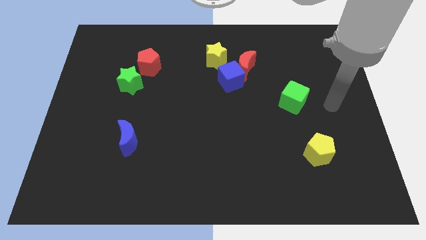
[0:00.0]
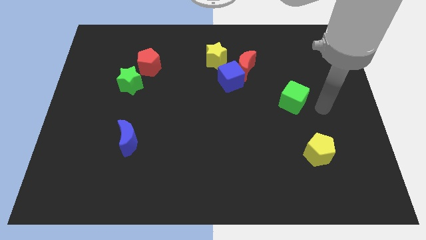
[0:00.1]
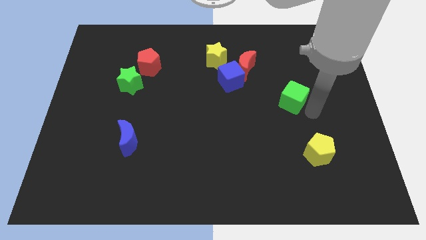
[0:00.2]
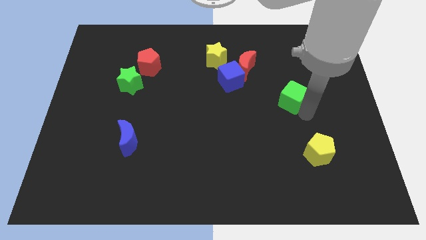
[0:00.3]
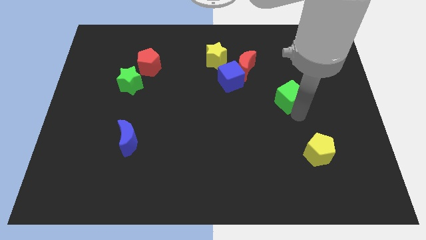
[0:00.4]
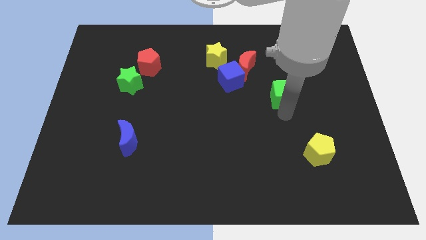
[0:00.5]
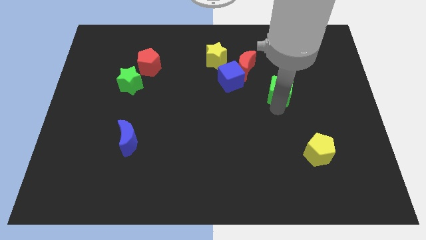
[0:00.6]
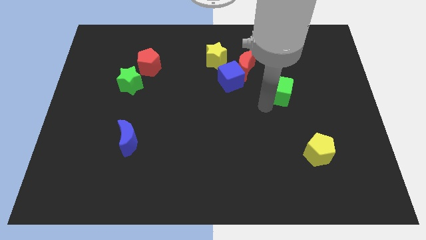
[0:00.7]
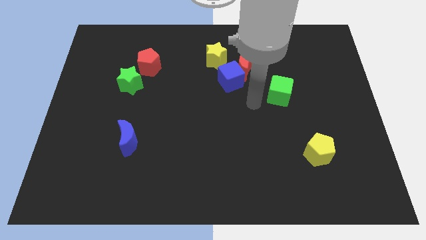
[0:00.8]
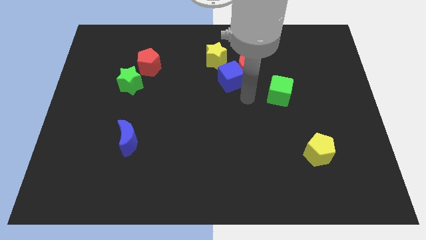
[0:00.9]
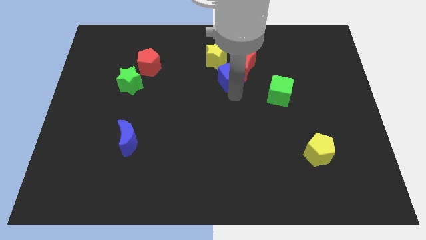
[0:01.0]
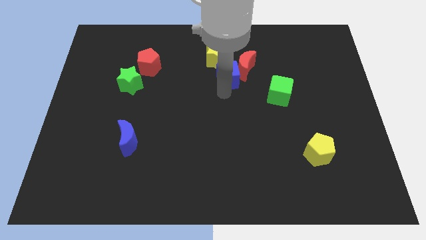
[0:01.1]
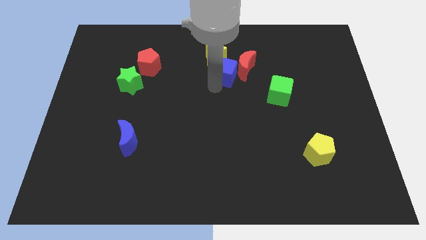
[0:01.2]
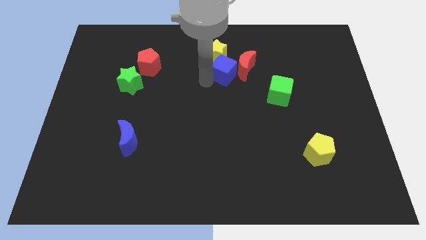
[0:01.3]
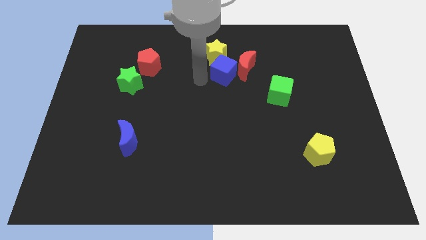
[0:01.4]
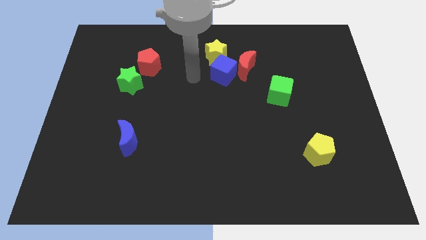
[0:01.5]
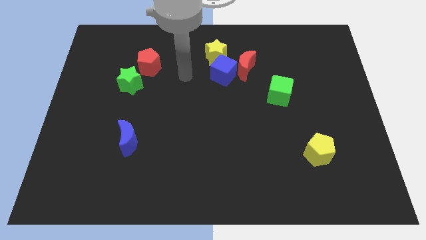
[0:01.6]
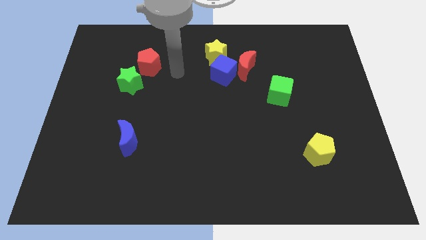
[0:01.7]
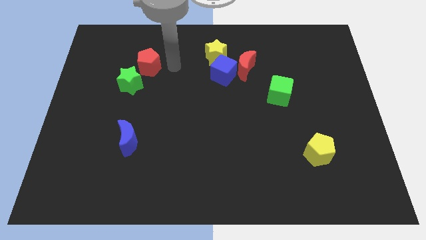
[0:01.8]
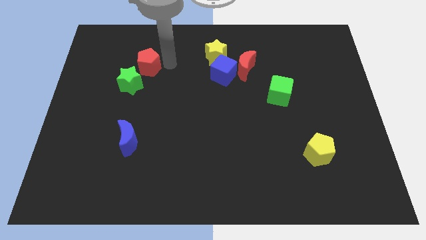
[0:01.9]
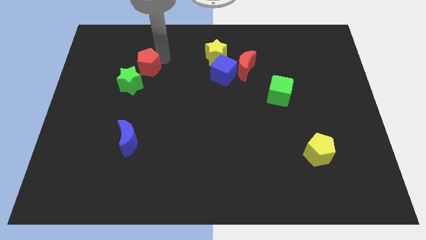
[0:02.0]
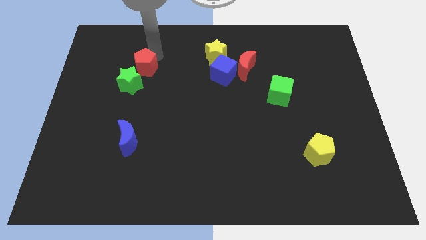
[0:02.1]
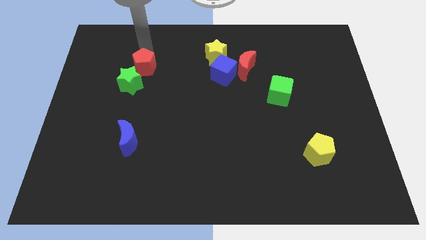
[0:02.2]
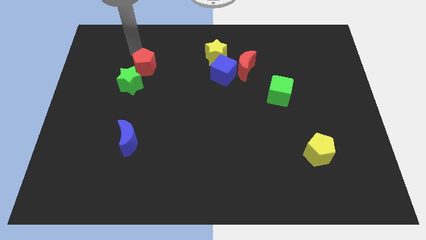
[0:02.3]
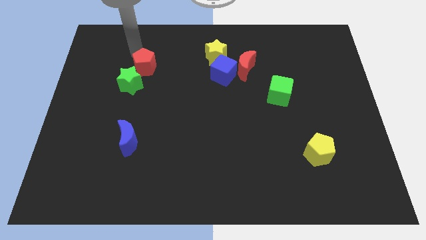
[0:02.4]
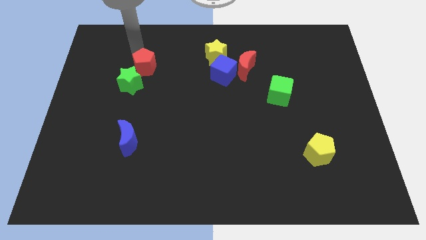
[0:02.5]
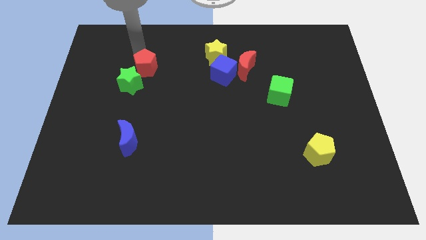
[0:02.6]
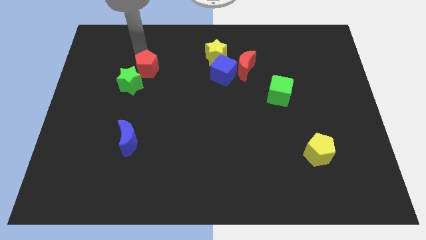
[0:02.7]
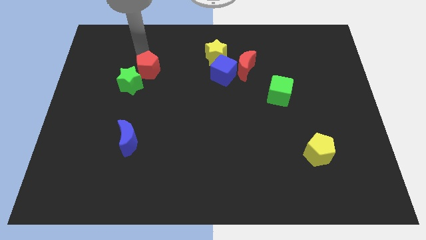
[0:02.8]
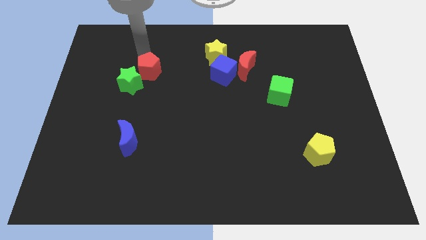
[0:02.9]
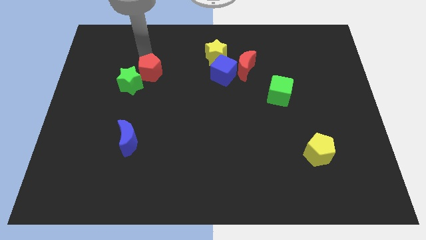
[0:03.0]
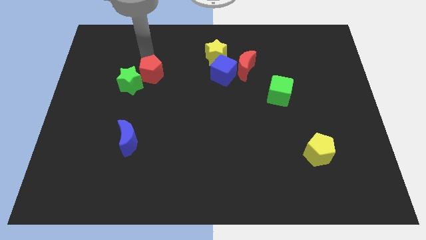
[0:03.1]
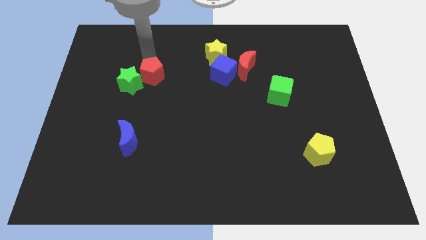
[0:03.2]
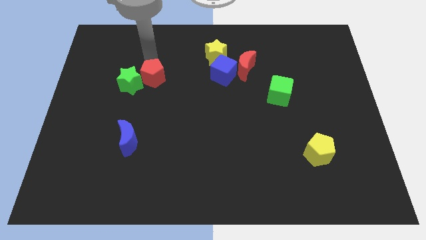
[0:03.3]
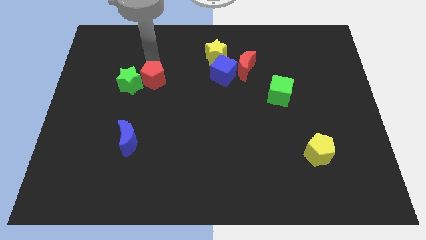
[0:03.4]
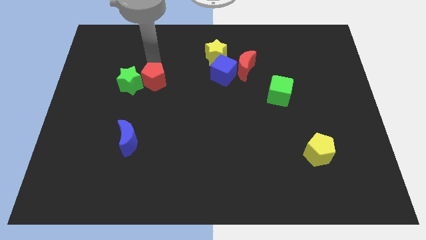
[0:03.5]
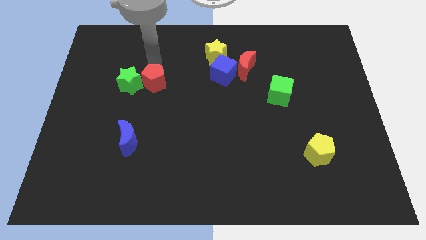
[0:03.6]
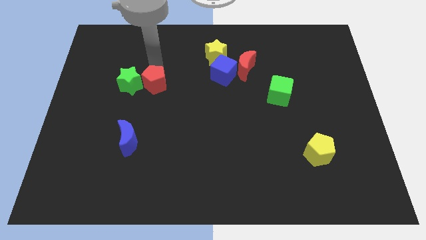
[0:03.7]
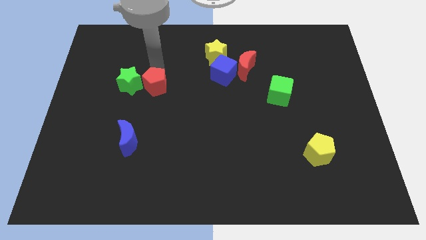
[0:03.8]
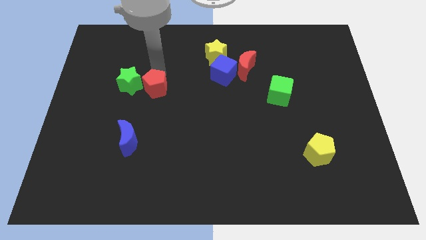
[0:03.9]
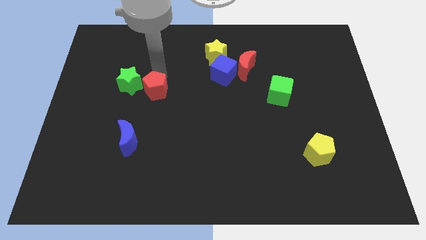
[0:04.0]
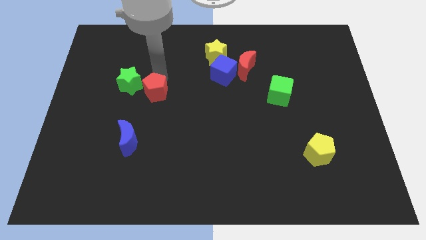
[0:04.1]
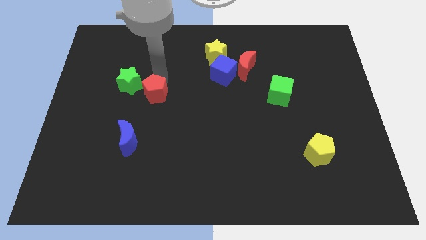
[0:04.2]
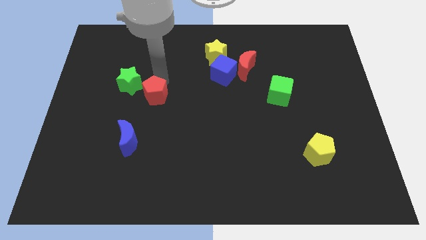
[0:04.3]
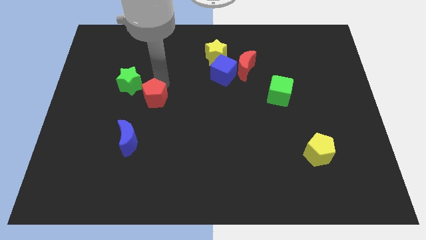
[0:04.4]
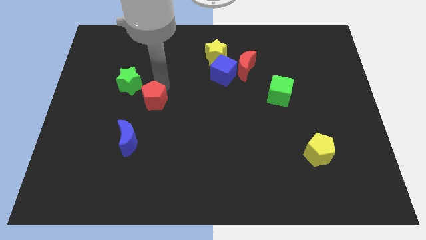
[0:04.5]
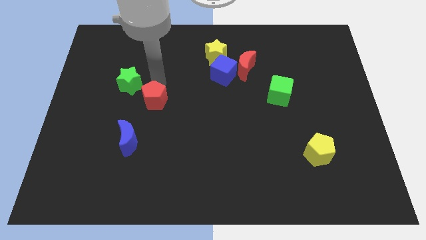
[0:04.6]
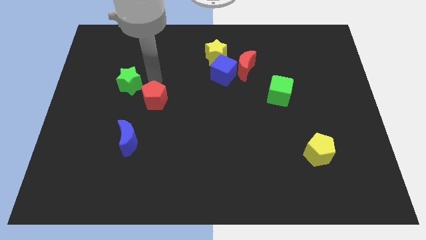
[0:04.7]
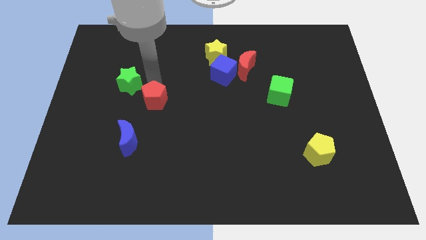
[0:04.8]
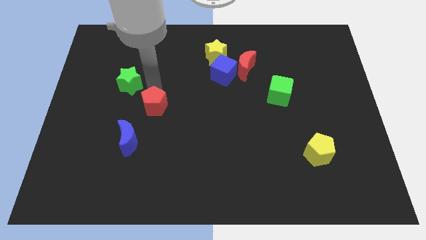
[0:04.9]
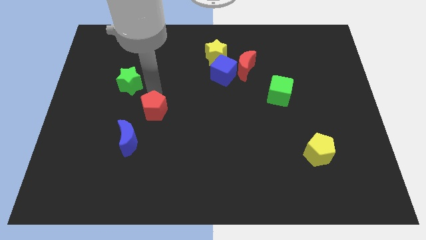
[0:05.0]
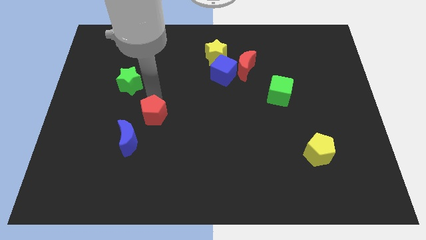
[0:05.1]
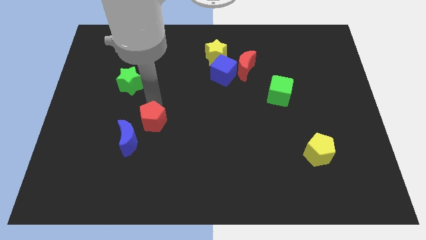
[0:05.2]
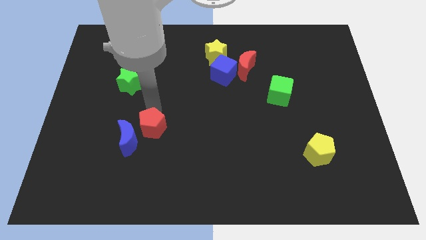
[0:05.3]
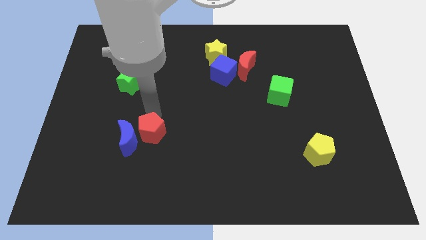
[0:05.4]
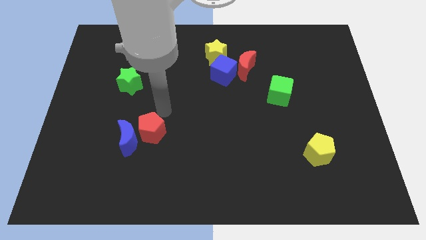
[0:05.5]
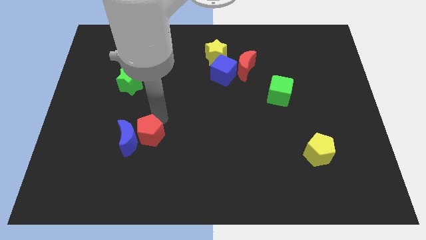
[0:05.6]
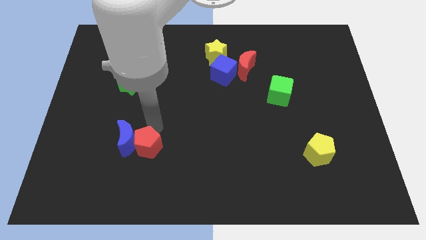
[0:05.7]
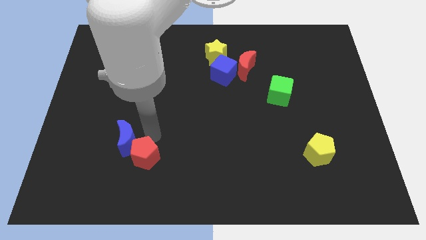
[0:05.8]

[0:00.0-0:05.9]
push the red pentagon below the blue moon

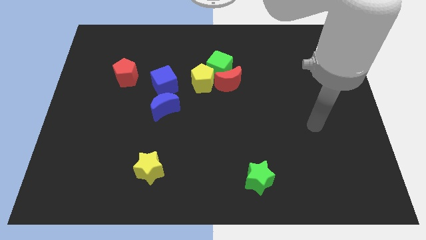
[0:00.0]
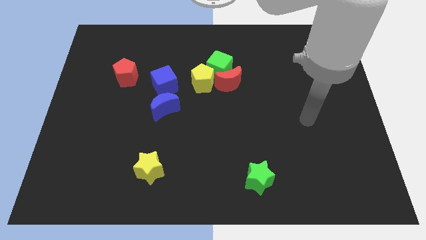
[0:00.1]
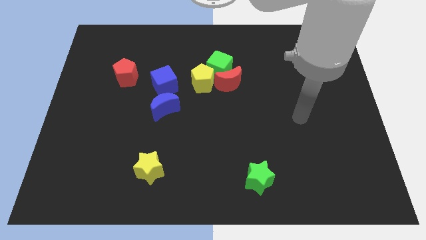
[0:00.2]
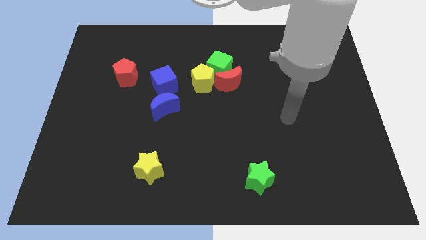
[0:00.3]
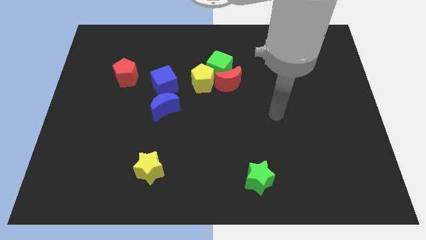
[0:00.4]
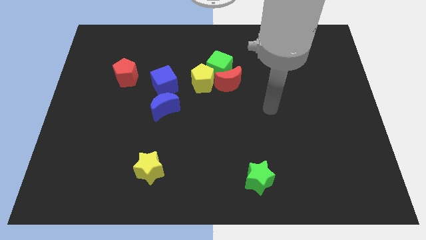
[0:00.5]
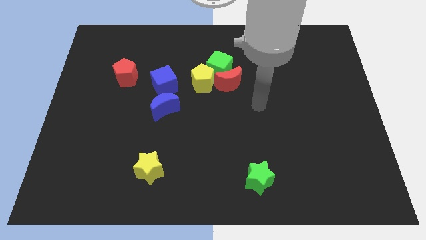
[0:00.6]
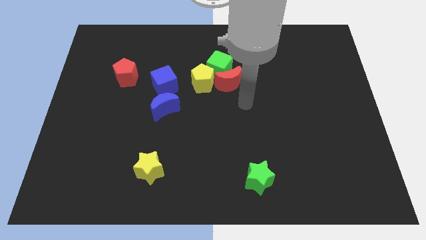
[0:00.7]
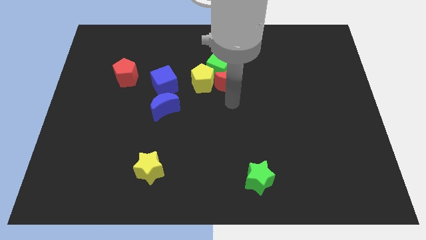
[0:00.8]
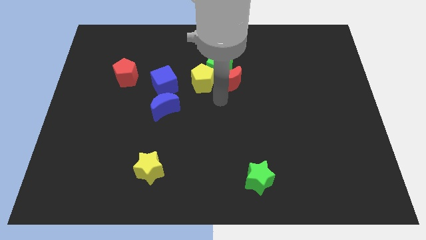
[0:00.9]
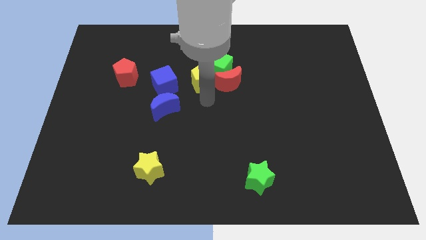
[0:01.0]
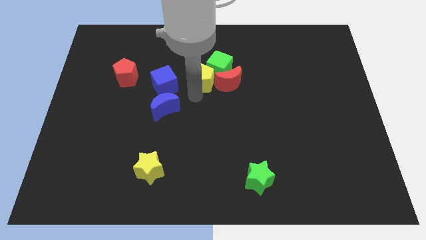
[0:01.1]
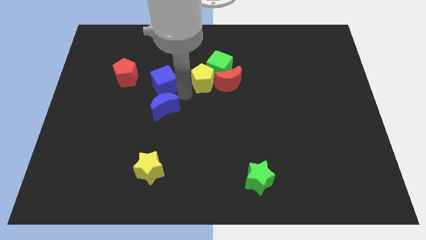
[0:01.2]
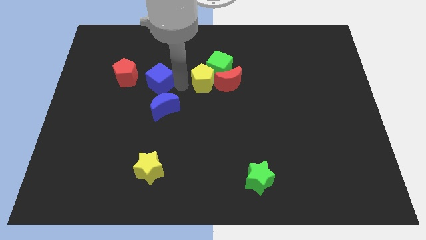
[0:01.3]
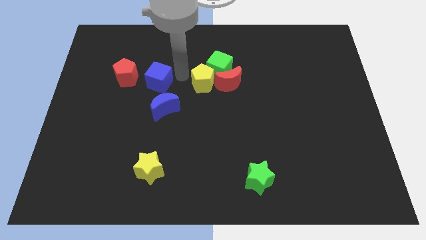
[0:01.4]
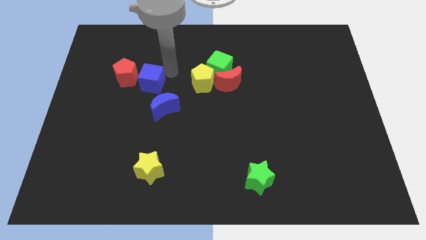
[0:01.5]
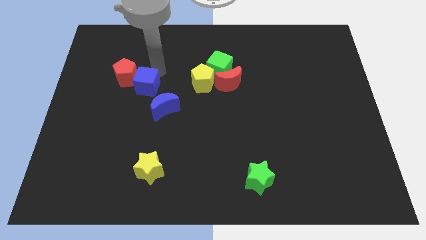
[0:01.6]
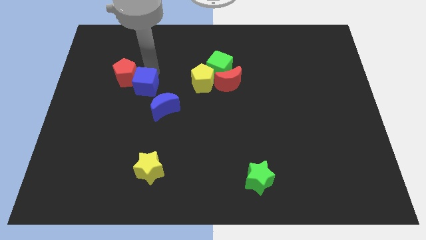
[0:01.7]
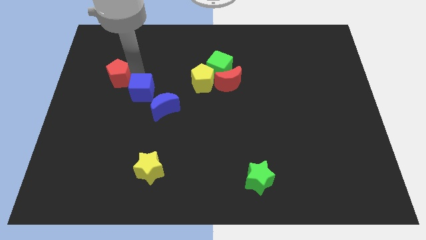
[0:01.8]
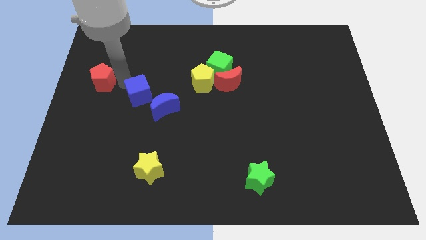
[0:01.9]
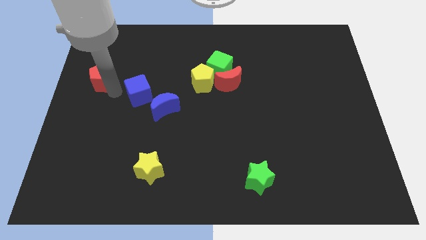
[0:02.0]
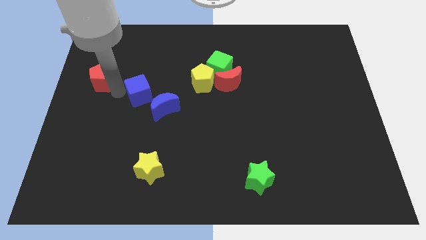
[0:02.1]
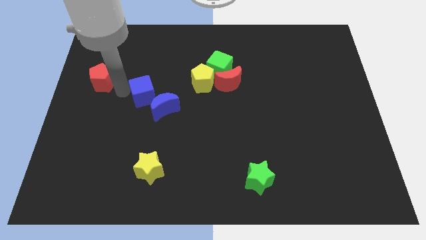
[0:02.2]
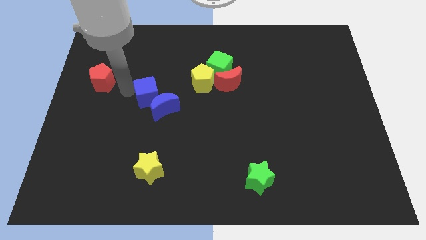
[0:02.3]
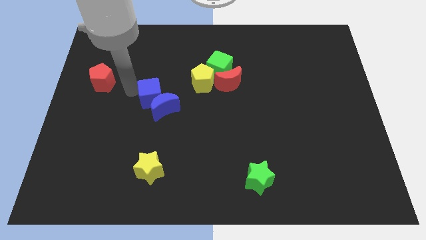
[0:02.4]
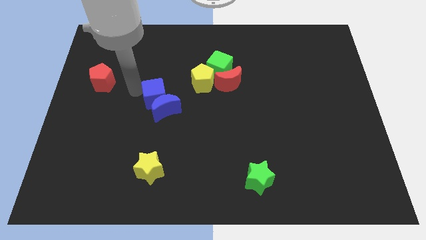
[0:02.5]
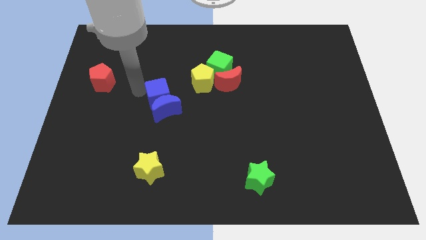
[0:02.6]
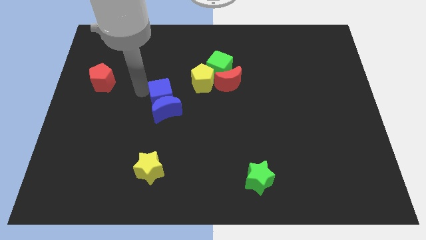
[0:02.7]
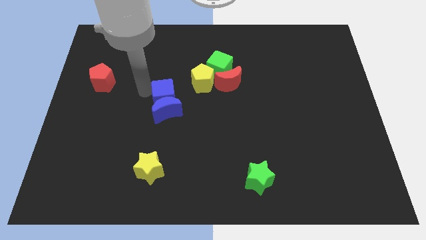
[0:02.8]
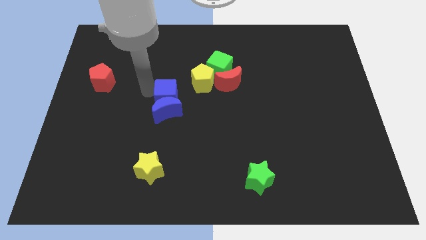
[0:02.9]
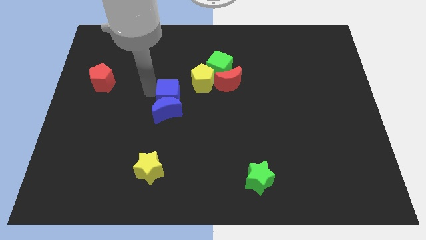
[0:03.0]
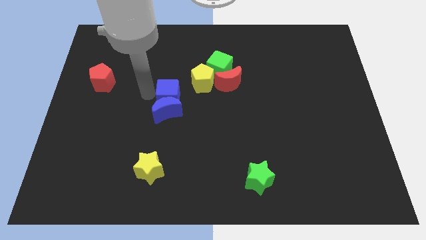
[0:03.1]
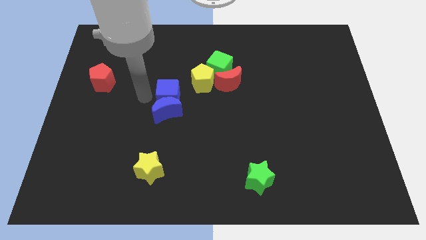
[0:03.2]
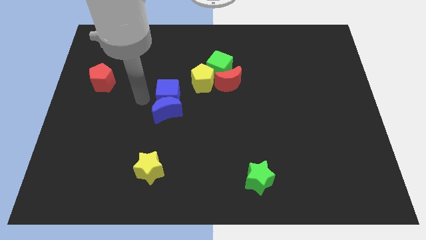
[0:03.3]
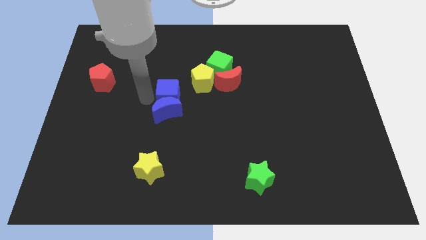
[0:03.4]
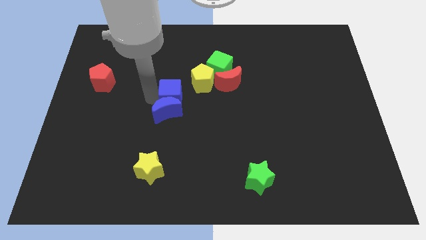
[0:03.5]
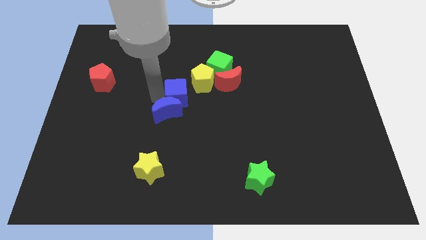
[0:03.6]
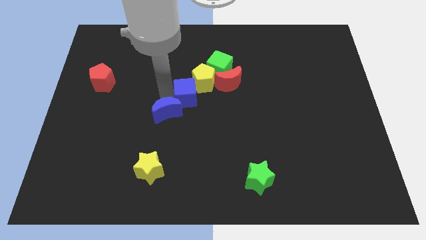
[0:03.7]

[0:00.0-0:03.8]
put the blue cube right of the blue moon
